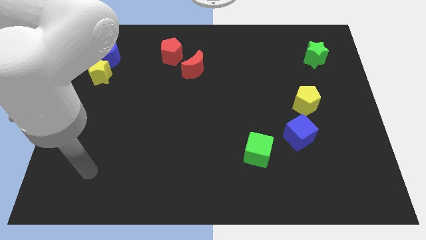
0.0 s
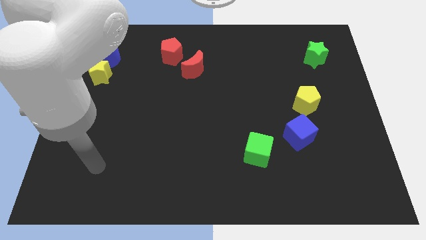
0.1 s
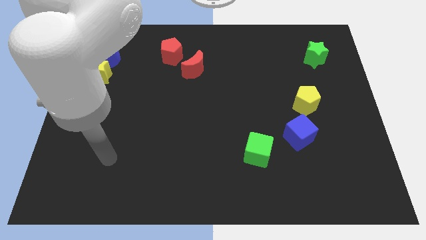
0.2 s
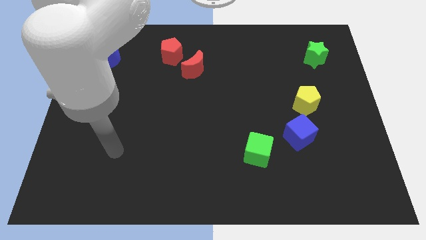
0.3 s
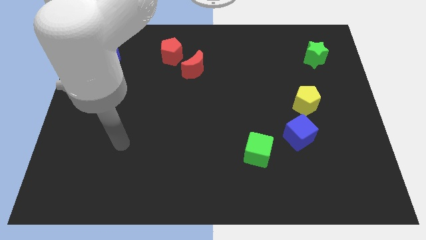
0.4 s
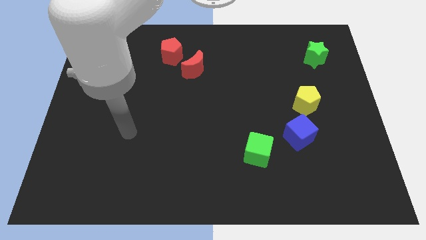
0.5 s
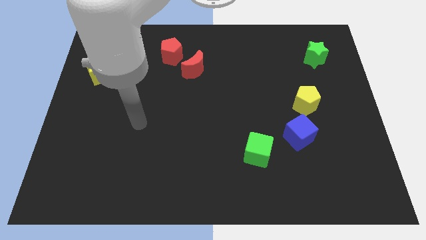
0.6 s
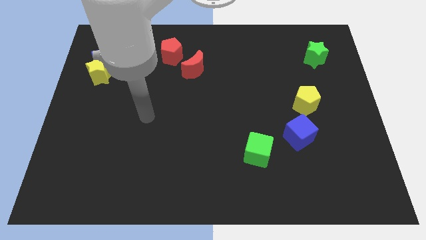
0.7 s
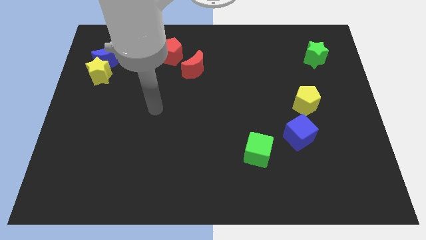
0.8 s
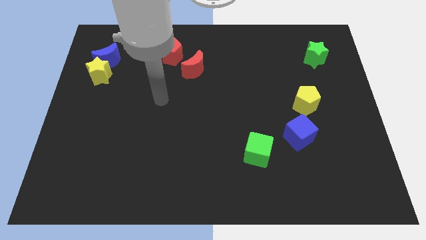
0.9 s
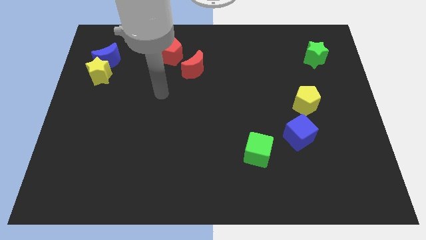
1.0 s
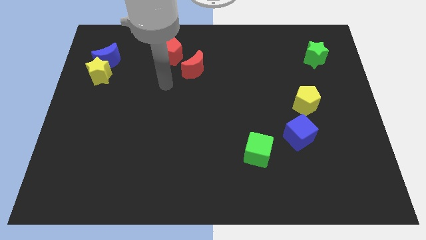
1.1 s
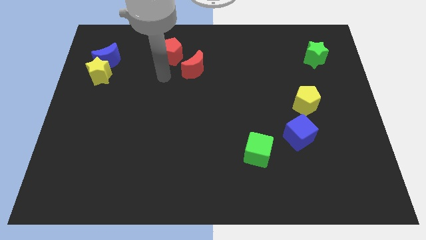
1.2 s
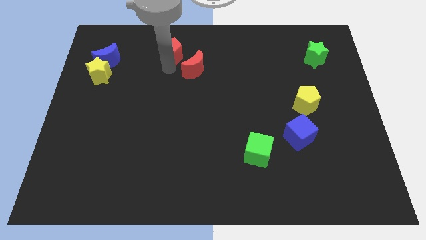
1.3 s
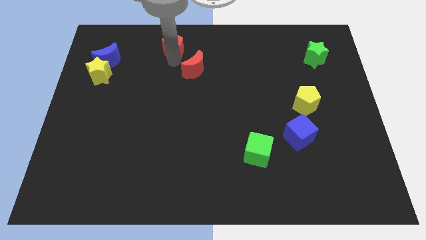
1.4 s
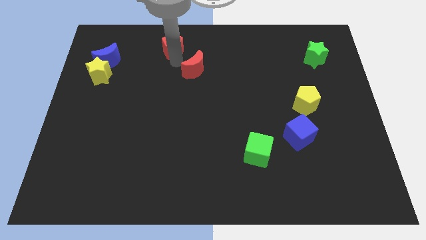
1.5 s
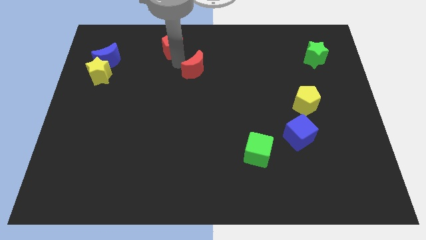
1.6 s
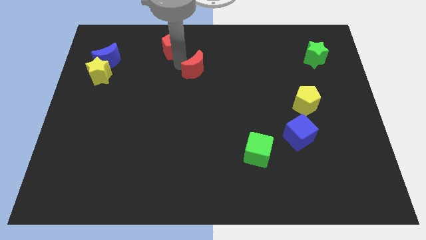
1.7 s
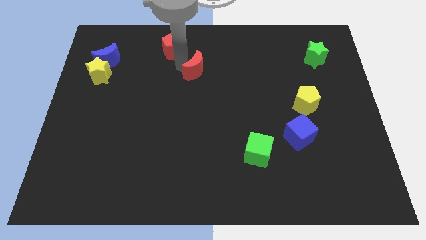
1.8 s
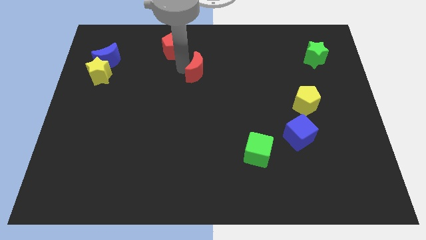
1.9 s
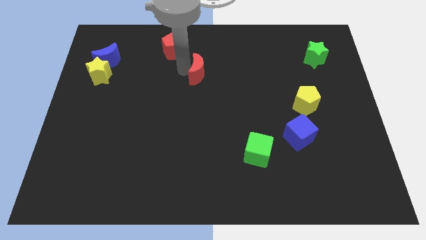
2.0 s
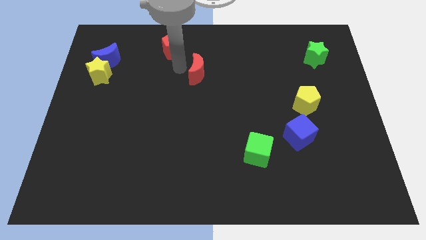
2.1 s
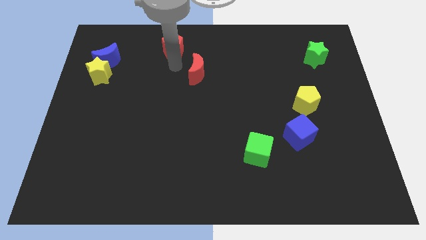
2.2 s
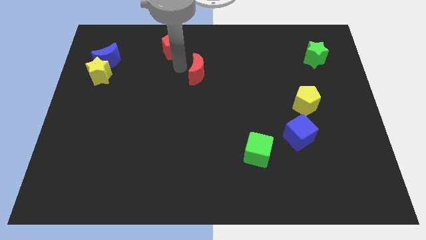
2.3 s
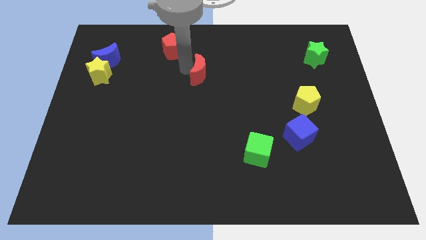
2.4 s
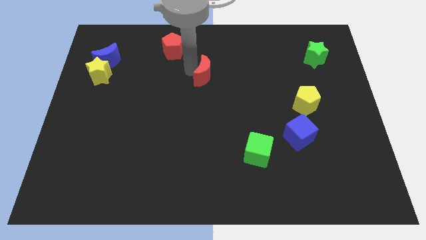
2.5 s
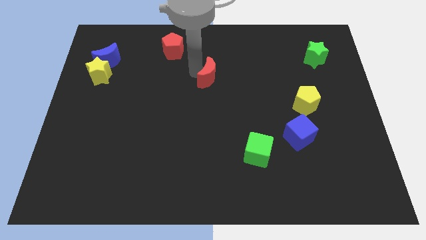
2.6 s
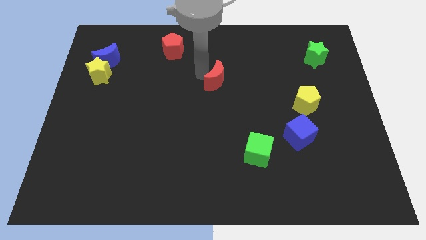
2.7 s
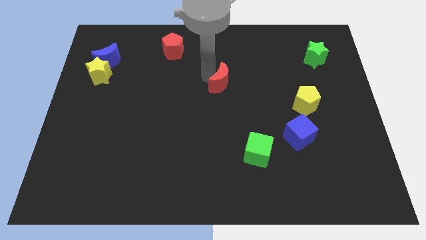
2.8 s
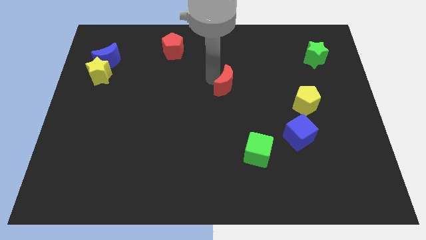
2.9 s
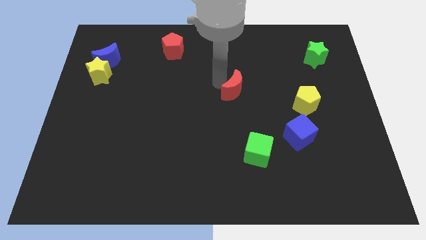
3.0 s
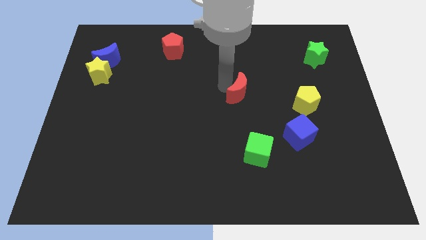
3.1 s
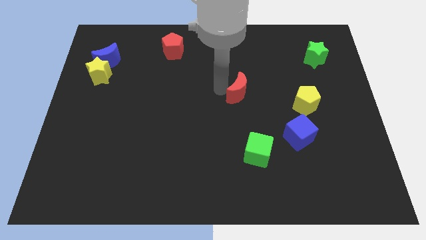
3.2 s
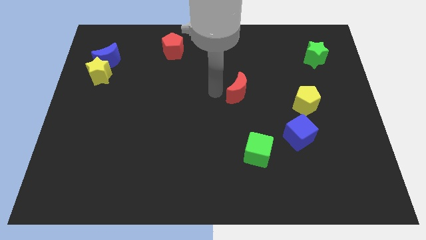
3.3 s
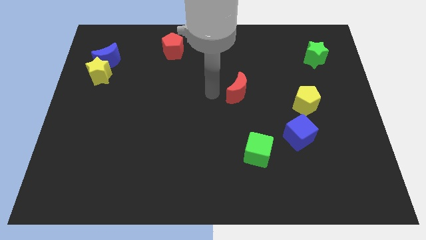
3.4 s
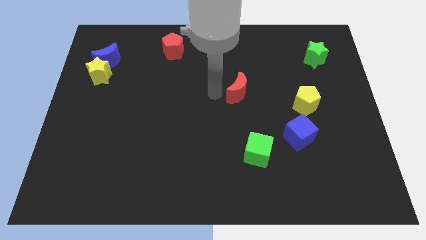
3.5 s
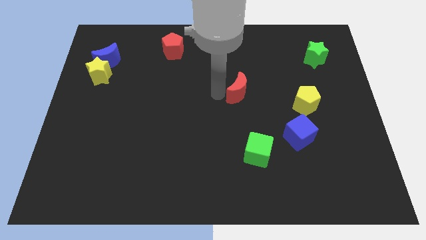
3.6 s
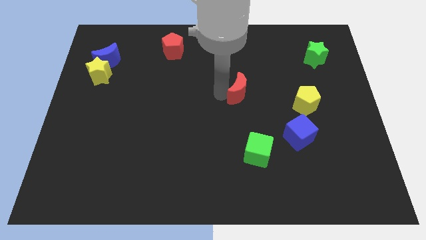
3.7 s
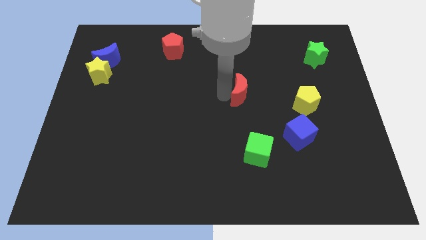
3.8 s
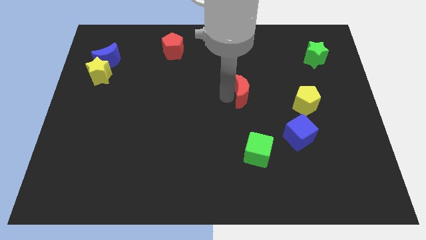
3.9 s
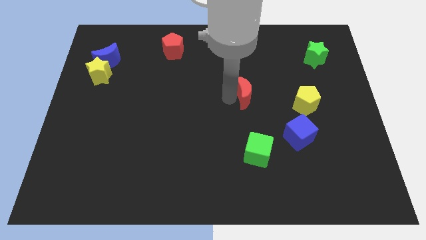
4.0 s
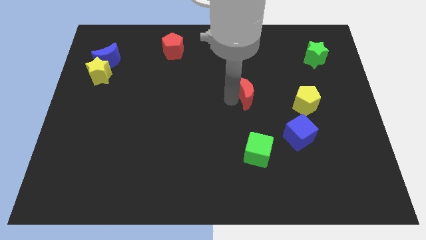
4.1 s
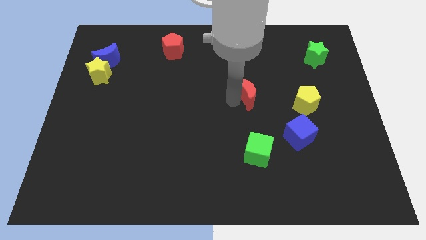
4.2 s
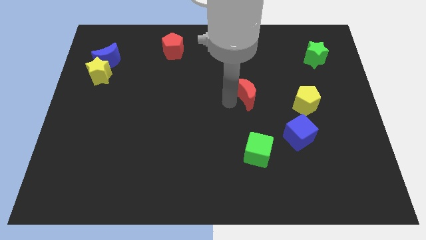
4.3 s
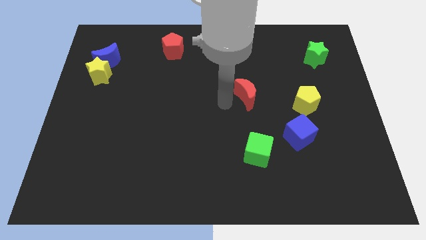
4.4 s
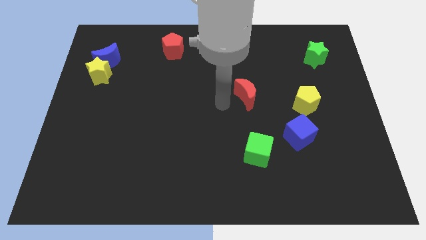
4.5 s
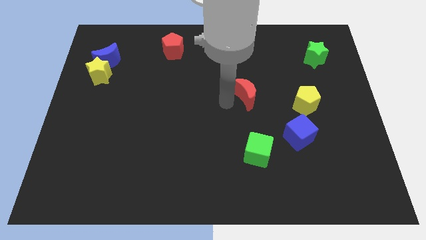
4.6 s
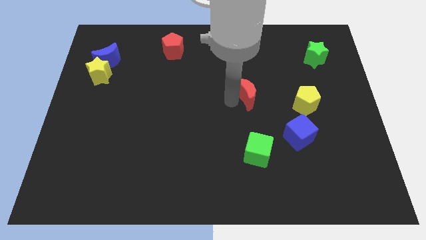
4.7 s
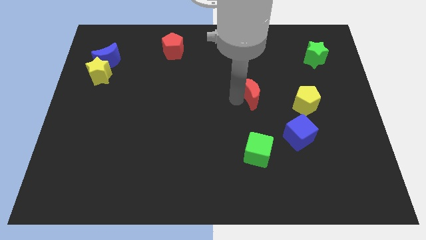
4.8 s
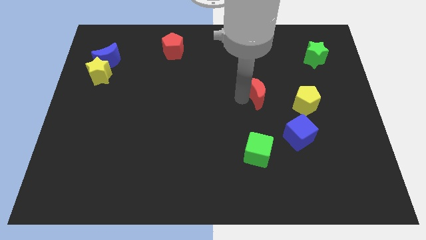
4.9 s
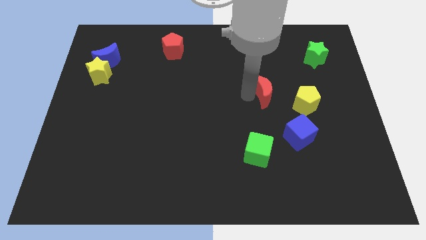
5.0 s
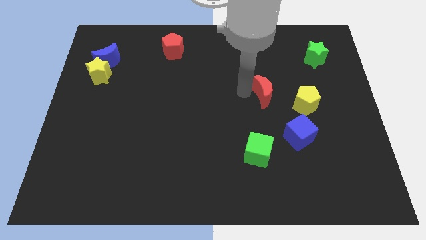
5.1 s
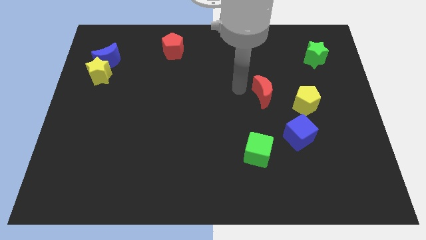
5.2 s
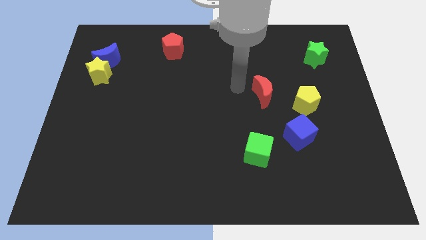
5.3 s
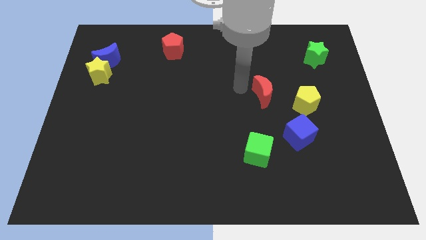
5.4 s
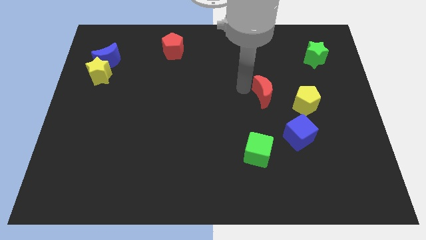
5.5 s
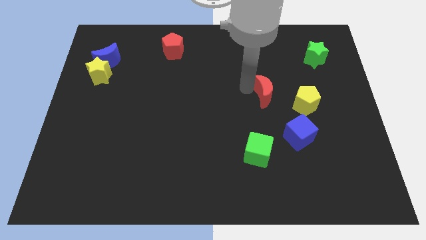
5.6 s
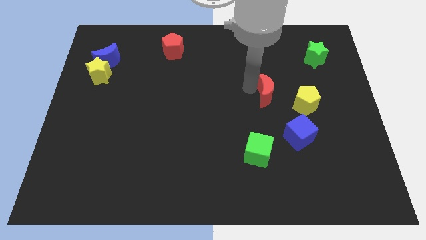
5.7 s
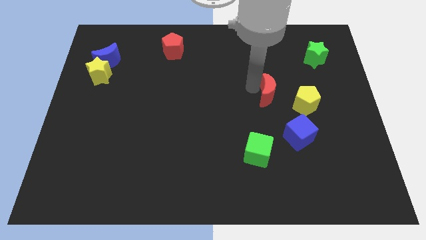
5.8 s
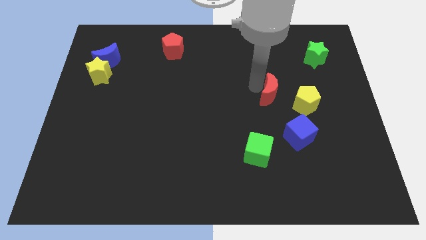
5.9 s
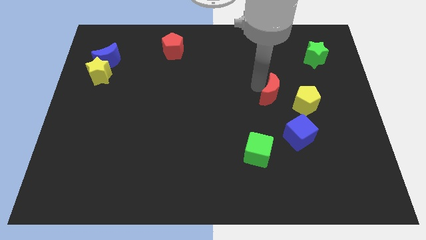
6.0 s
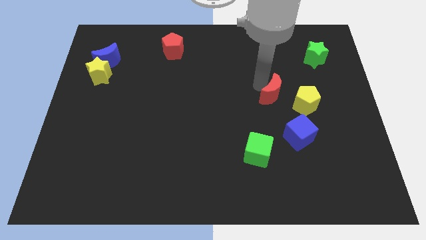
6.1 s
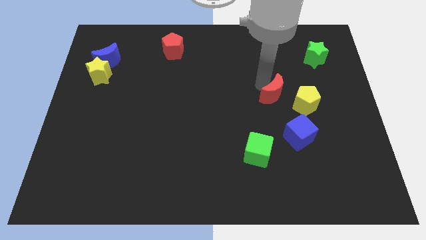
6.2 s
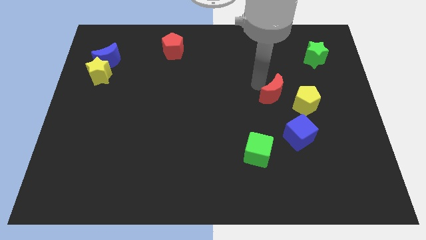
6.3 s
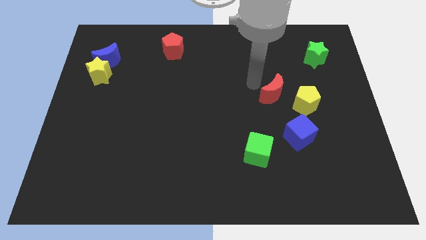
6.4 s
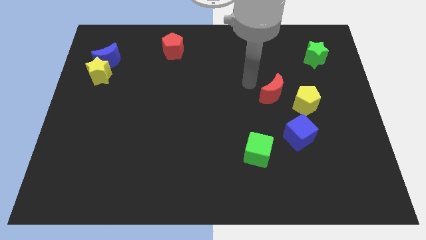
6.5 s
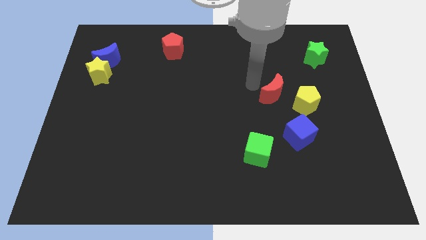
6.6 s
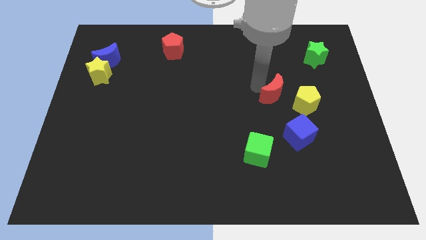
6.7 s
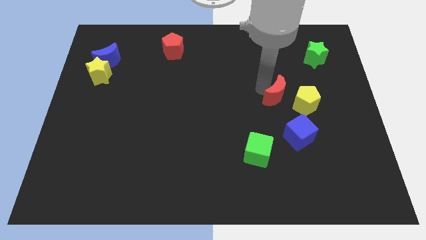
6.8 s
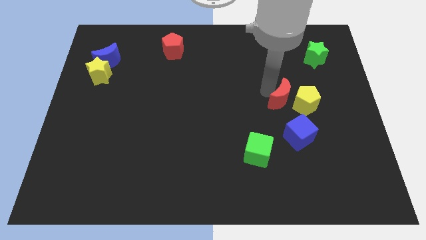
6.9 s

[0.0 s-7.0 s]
move the red moon towards the yellow pentagon
